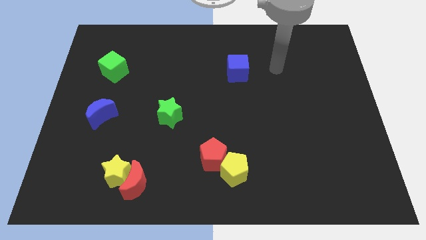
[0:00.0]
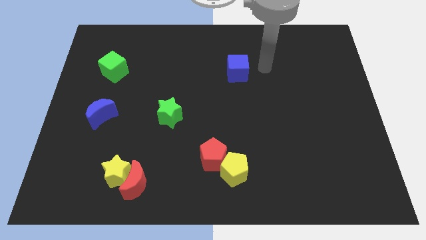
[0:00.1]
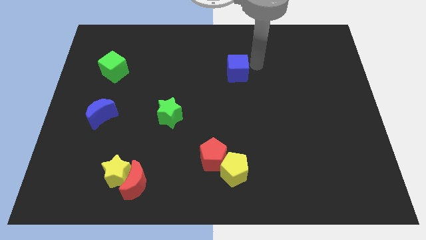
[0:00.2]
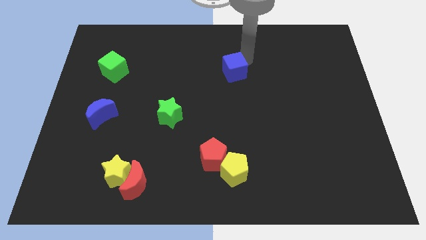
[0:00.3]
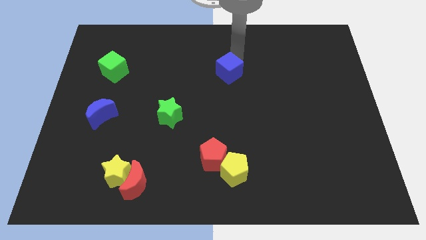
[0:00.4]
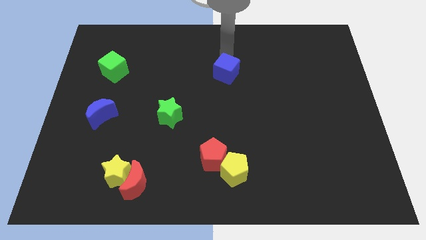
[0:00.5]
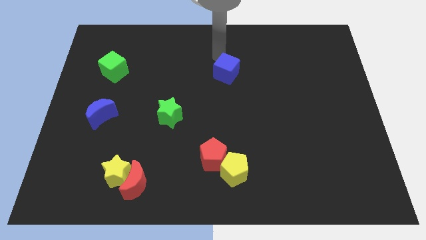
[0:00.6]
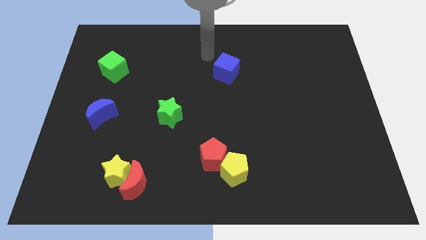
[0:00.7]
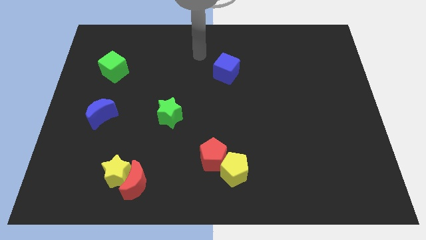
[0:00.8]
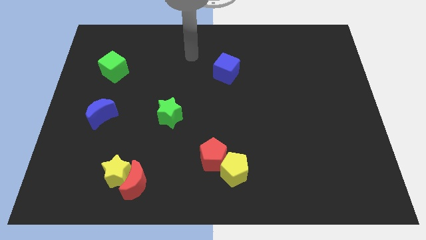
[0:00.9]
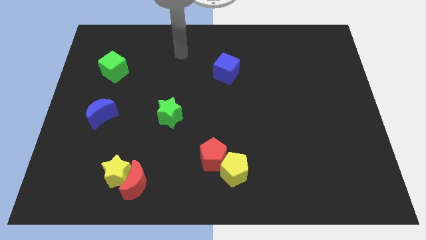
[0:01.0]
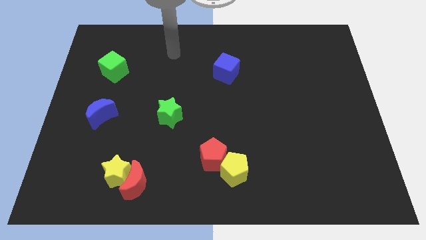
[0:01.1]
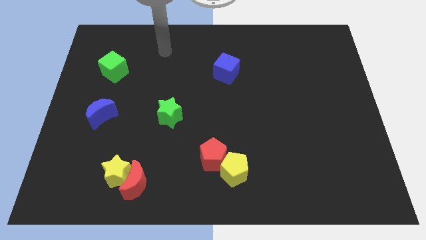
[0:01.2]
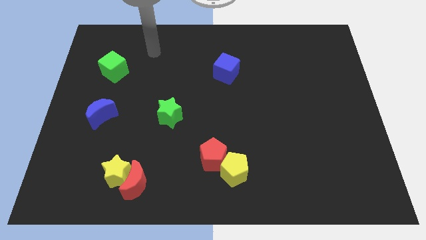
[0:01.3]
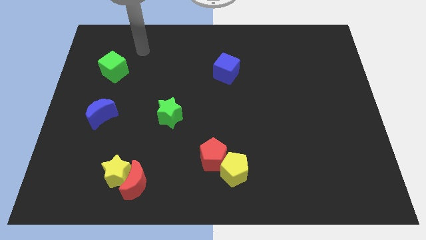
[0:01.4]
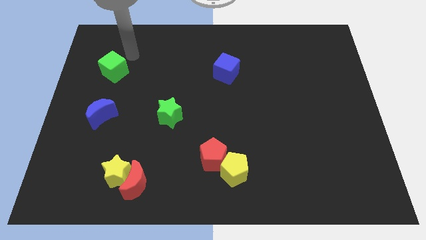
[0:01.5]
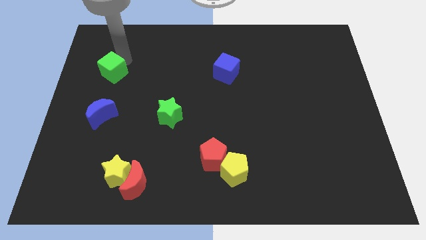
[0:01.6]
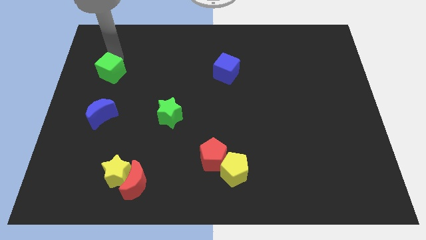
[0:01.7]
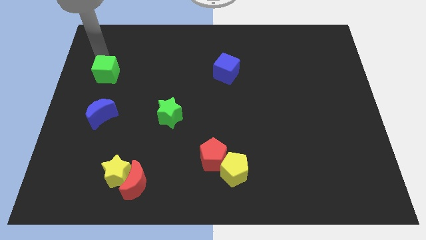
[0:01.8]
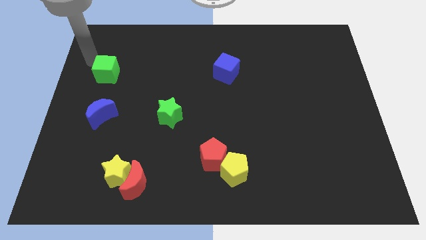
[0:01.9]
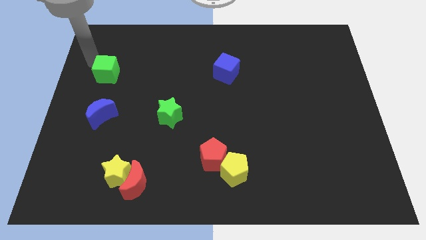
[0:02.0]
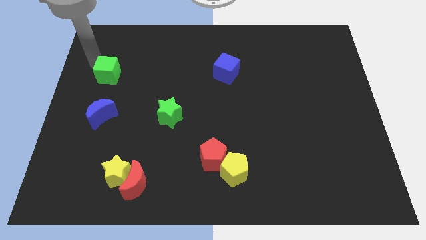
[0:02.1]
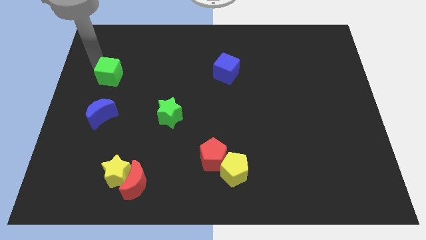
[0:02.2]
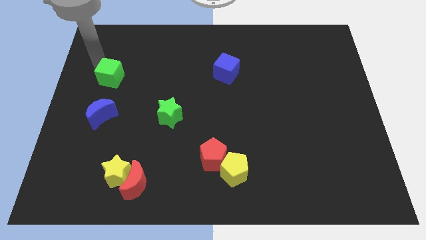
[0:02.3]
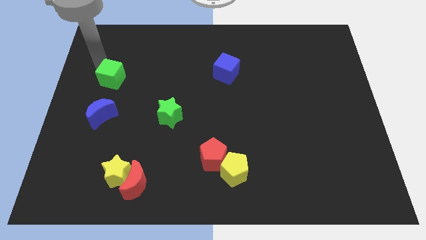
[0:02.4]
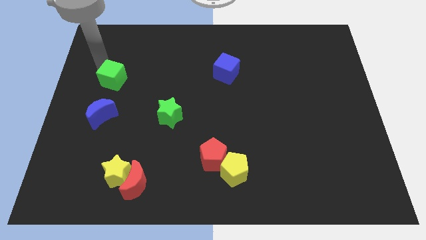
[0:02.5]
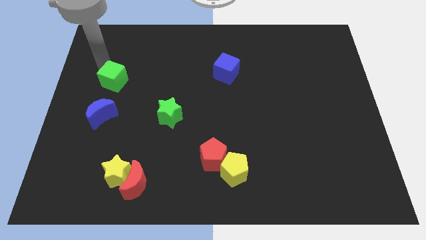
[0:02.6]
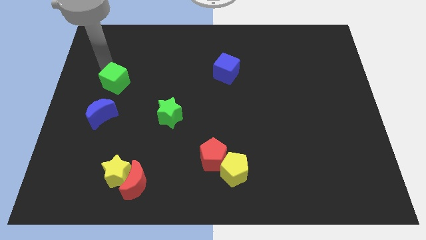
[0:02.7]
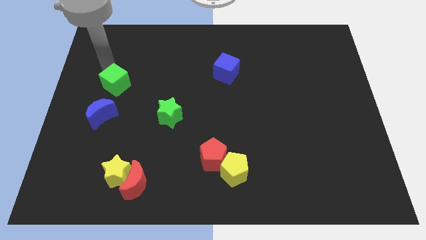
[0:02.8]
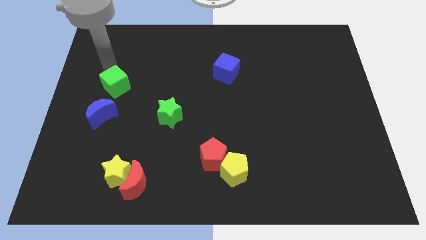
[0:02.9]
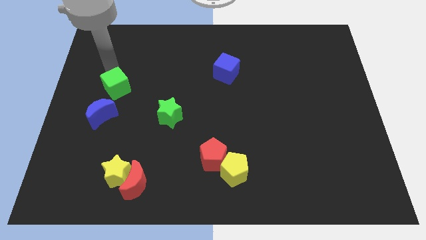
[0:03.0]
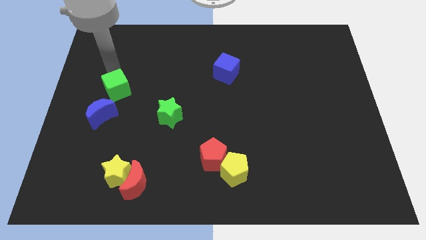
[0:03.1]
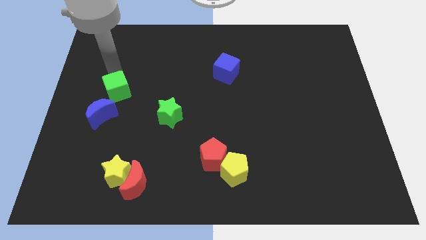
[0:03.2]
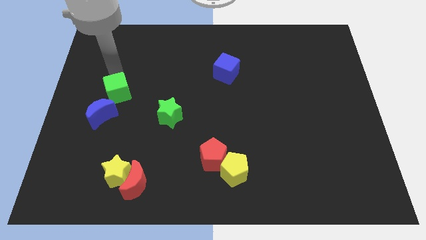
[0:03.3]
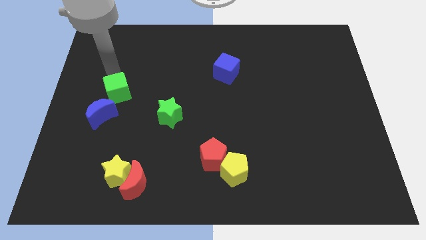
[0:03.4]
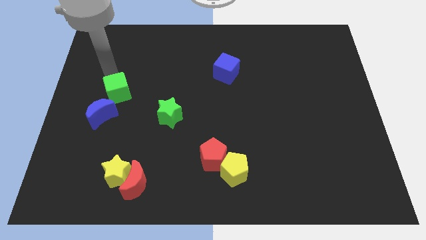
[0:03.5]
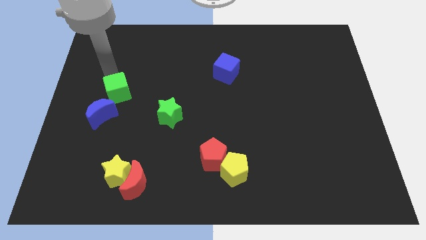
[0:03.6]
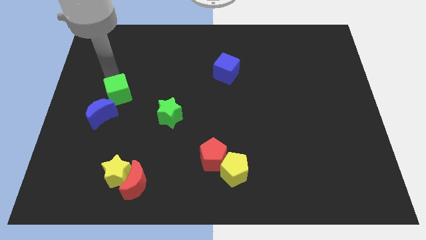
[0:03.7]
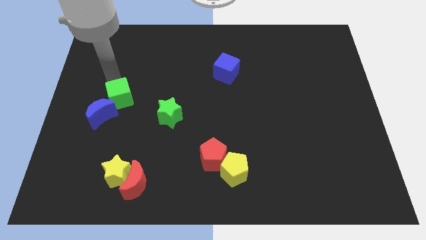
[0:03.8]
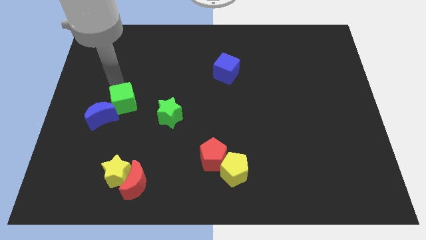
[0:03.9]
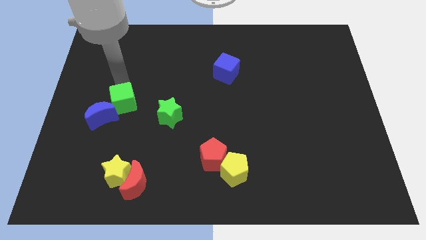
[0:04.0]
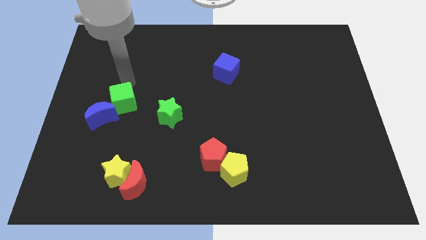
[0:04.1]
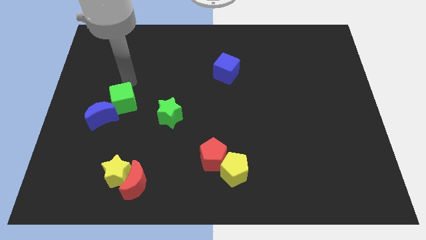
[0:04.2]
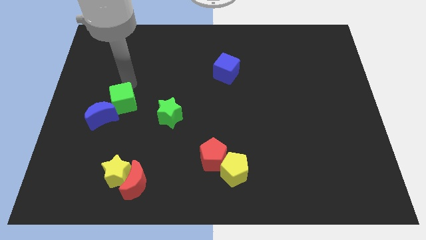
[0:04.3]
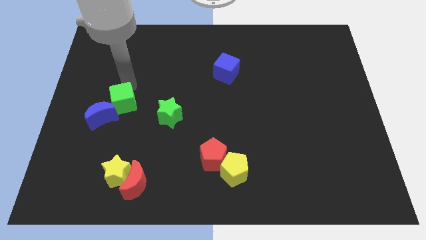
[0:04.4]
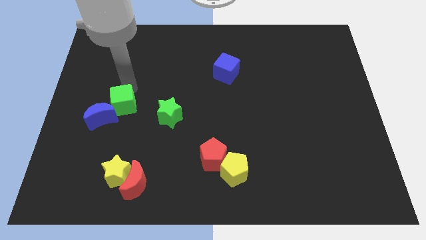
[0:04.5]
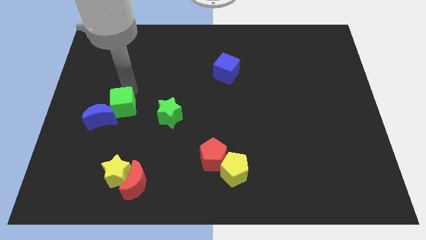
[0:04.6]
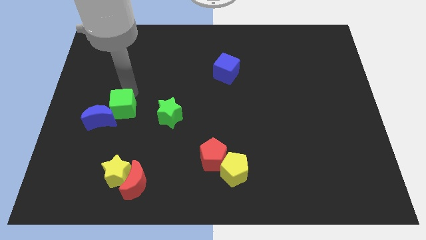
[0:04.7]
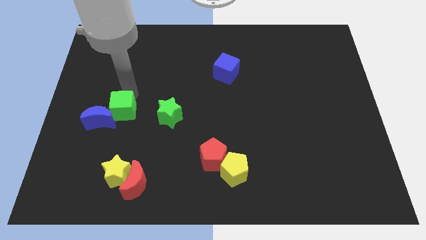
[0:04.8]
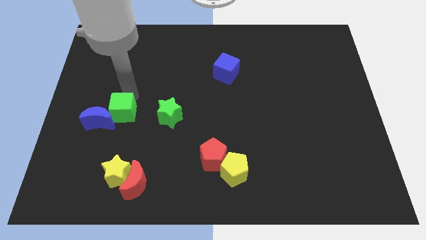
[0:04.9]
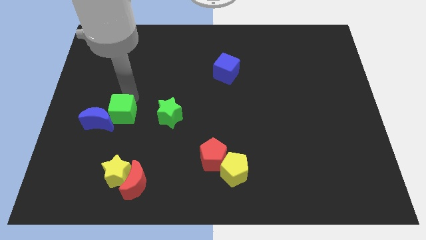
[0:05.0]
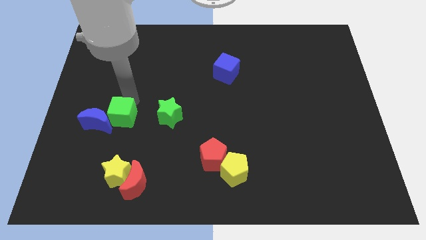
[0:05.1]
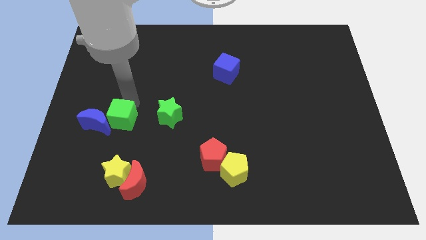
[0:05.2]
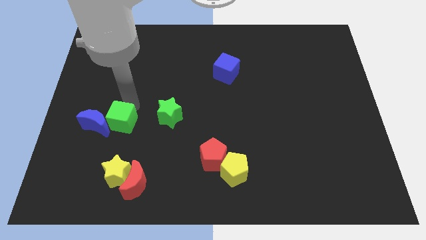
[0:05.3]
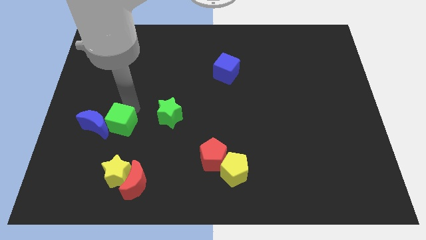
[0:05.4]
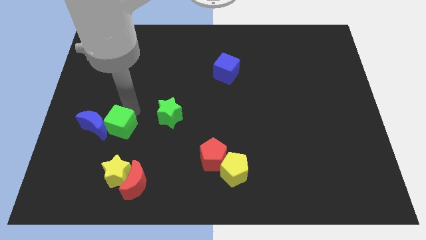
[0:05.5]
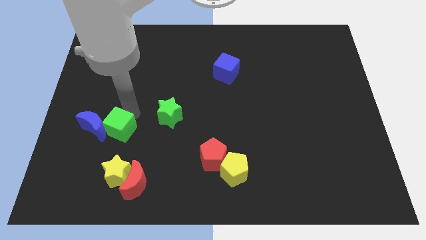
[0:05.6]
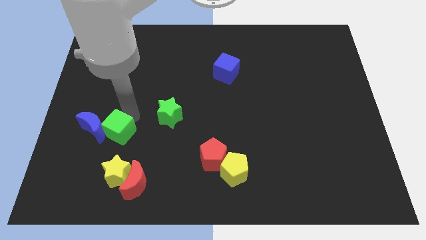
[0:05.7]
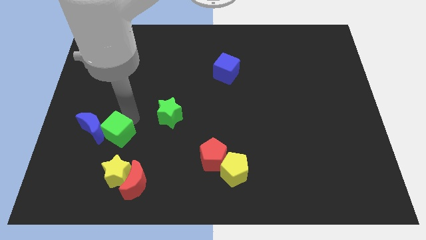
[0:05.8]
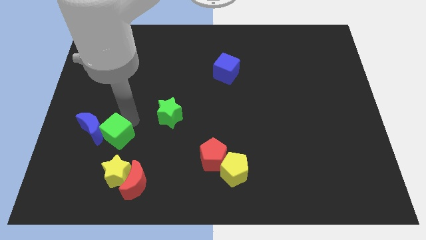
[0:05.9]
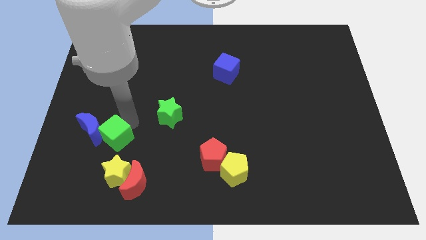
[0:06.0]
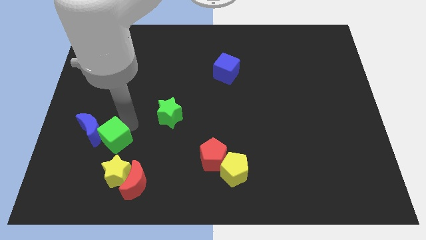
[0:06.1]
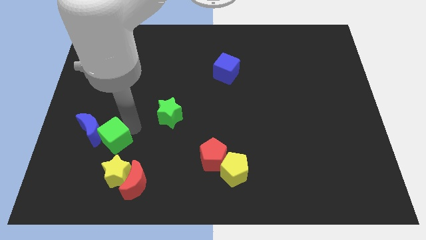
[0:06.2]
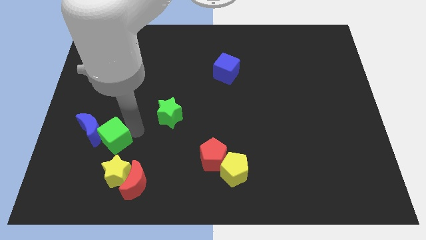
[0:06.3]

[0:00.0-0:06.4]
slide the green cube to the top left of the yellow star

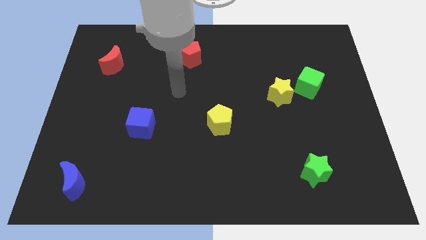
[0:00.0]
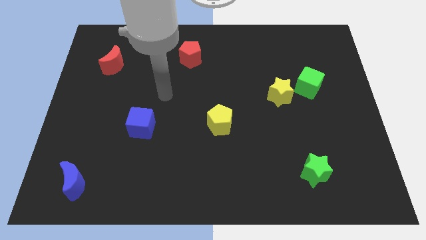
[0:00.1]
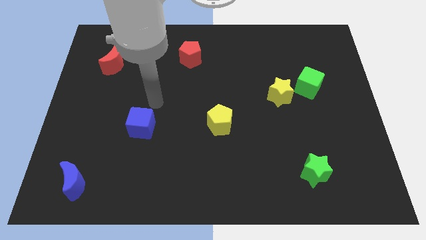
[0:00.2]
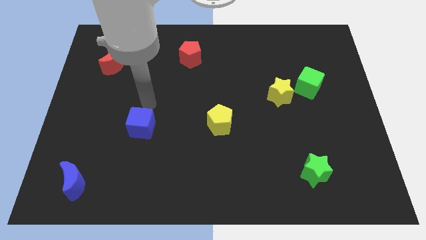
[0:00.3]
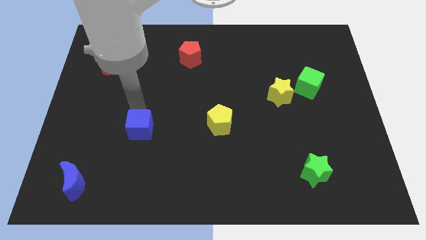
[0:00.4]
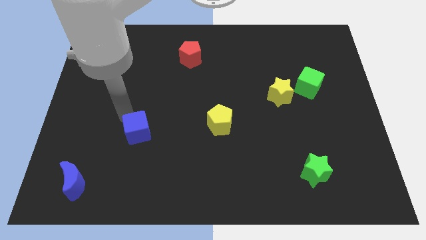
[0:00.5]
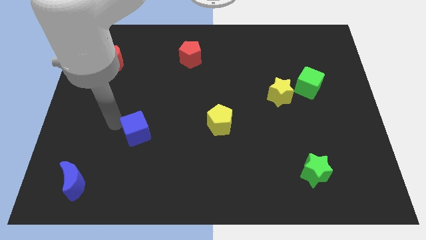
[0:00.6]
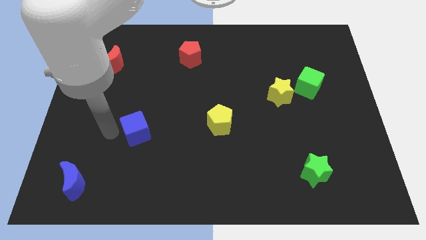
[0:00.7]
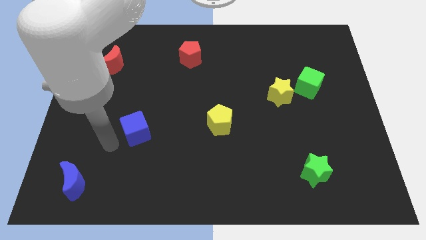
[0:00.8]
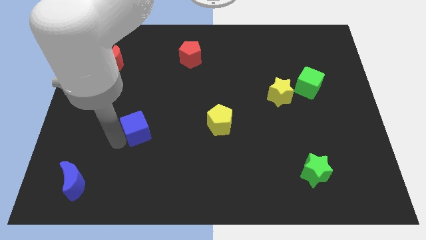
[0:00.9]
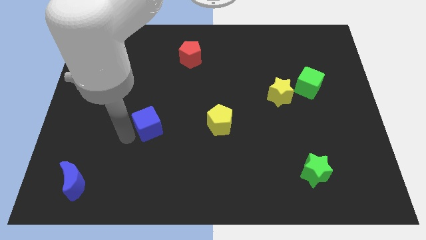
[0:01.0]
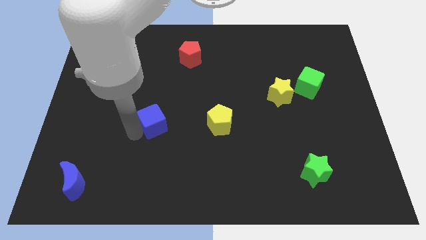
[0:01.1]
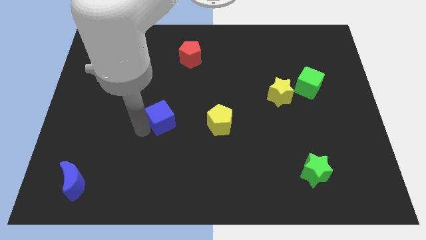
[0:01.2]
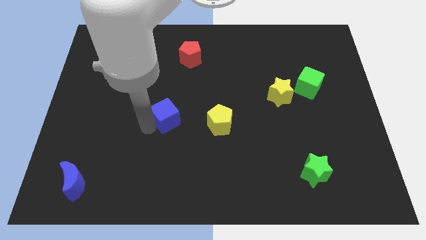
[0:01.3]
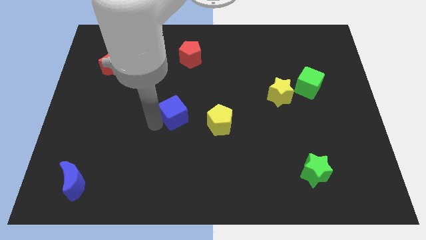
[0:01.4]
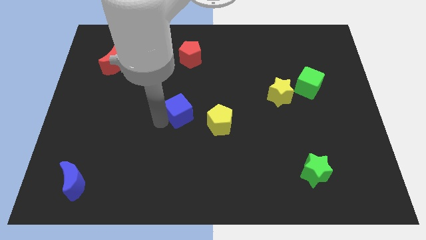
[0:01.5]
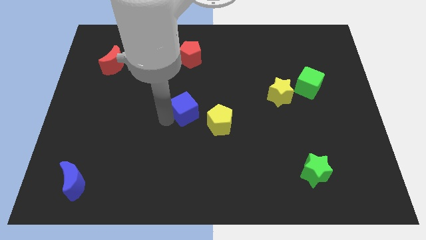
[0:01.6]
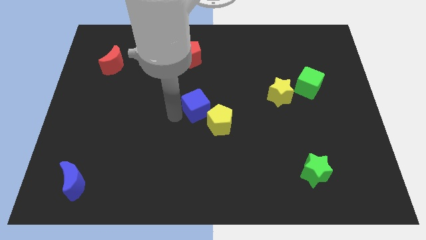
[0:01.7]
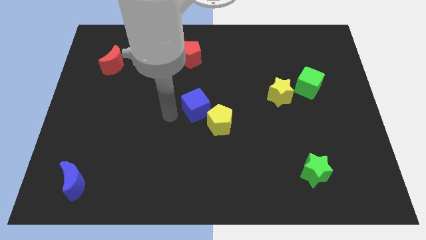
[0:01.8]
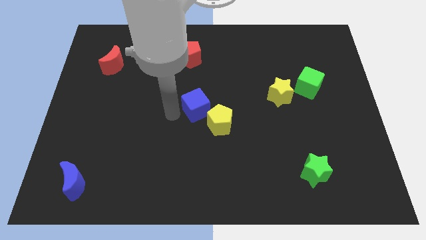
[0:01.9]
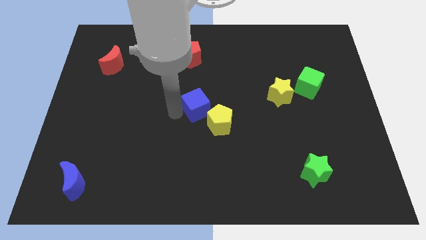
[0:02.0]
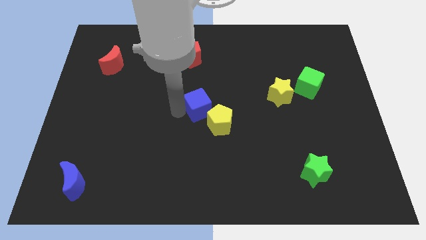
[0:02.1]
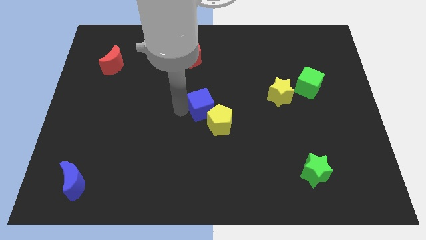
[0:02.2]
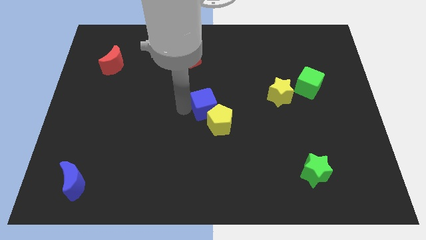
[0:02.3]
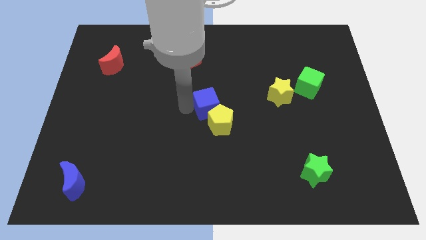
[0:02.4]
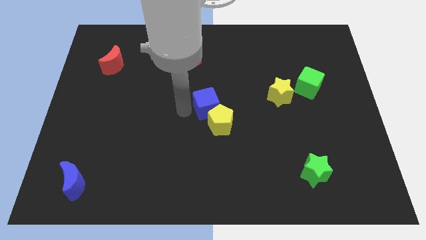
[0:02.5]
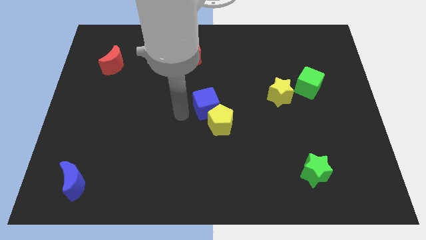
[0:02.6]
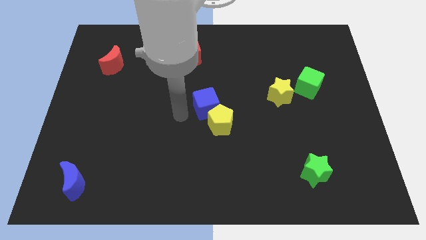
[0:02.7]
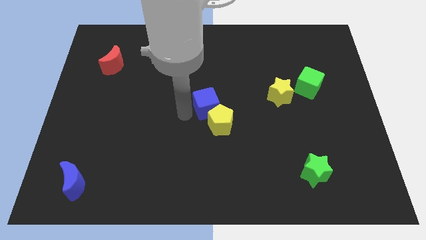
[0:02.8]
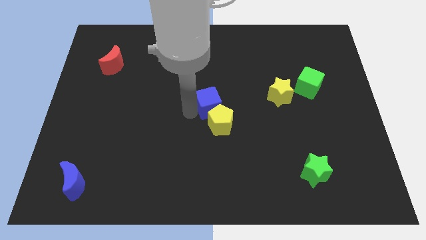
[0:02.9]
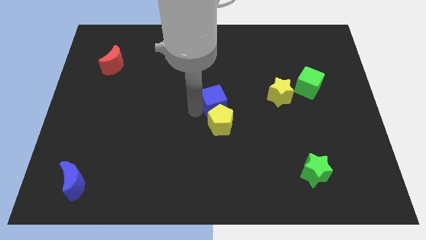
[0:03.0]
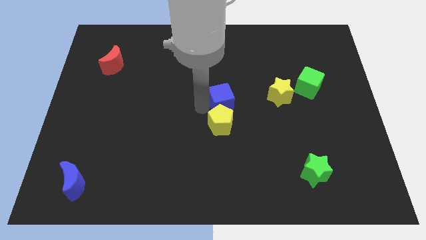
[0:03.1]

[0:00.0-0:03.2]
put the blue cube diagonally up and to the right of the yellow pentagon
